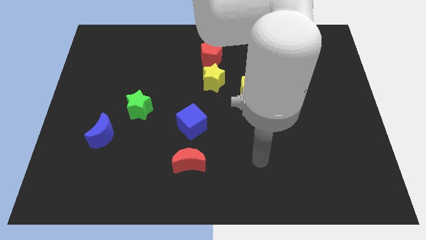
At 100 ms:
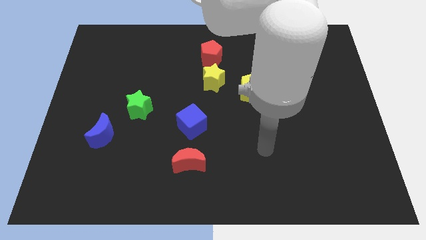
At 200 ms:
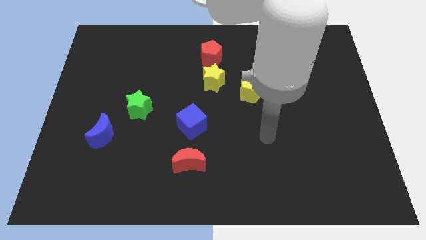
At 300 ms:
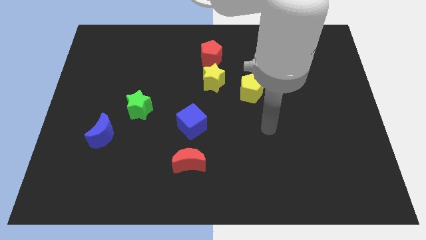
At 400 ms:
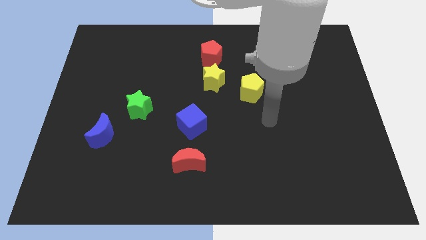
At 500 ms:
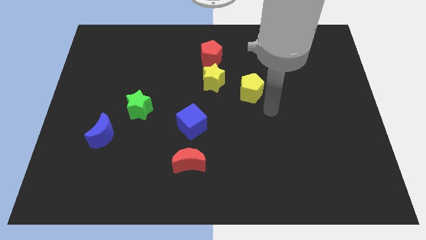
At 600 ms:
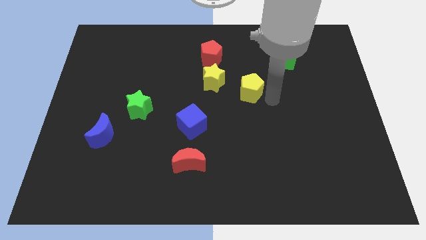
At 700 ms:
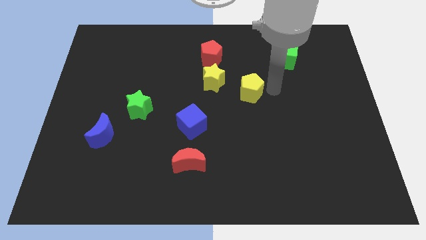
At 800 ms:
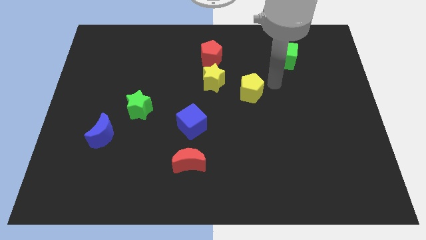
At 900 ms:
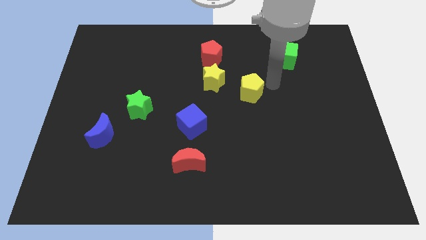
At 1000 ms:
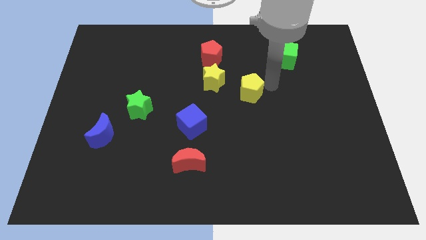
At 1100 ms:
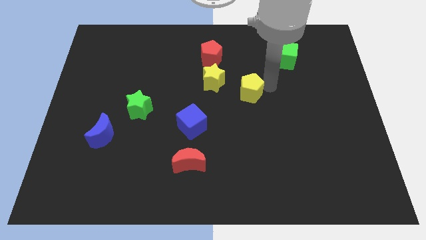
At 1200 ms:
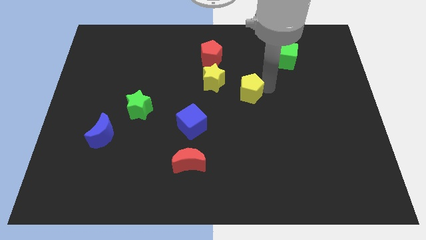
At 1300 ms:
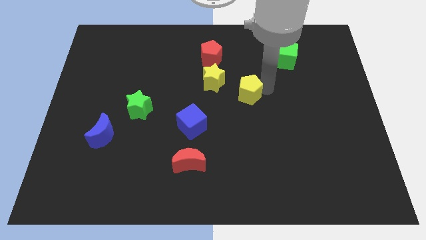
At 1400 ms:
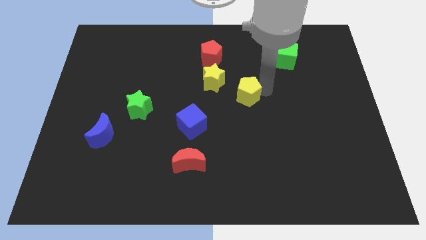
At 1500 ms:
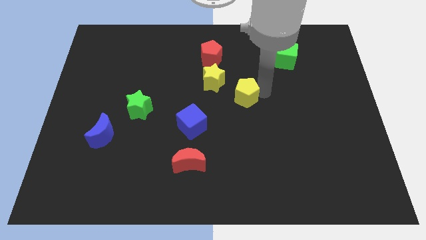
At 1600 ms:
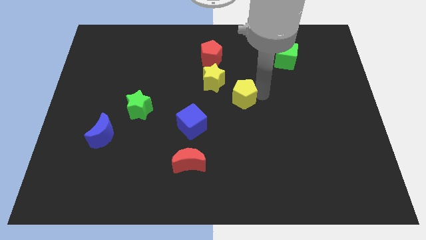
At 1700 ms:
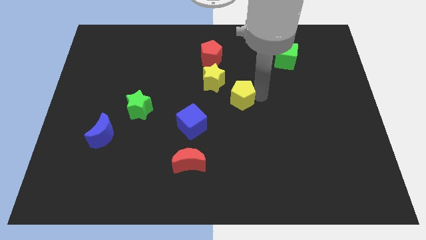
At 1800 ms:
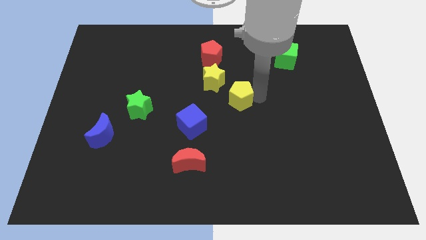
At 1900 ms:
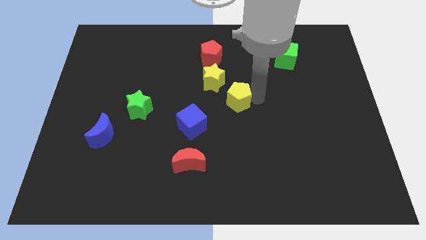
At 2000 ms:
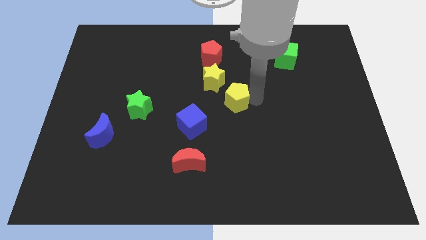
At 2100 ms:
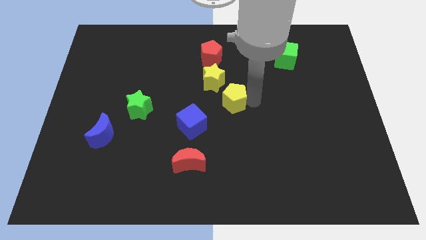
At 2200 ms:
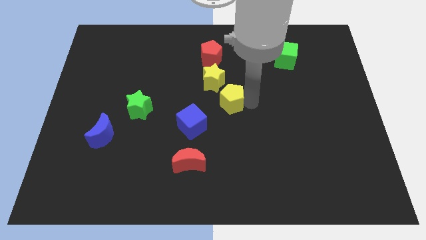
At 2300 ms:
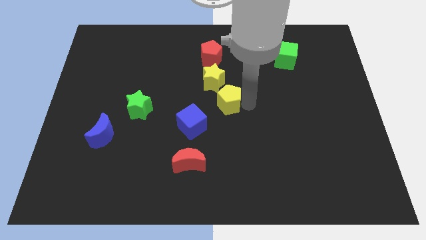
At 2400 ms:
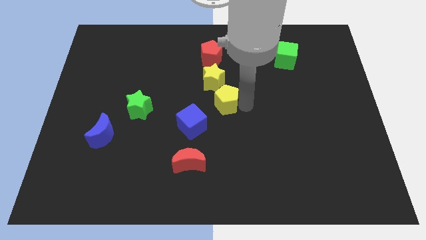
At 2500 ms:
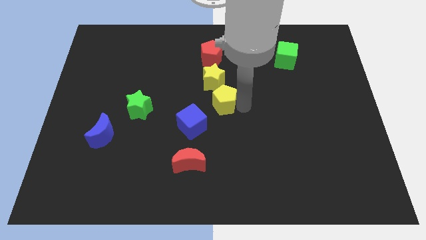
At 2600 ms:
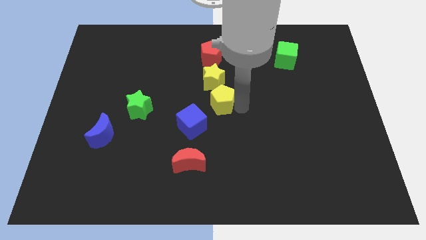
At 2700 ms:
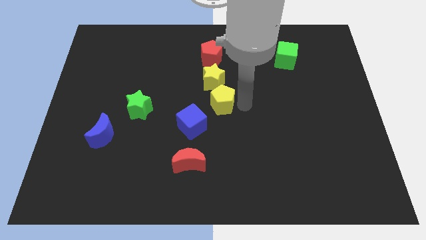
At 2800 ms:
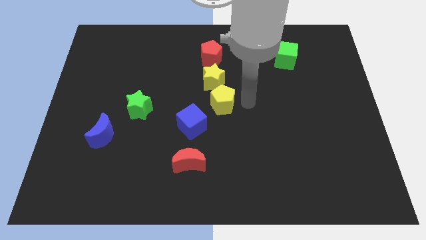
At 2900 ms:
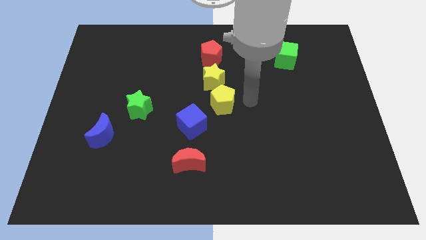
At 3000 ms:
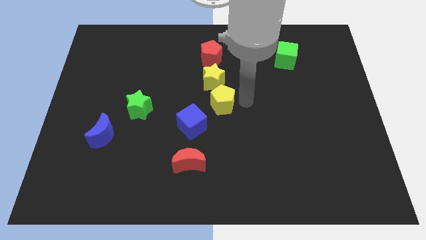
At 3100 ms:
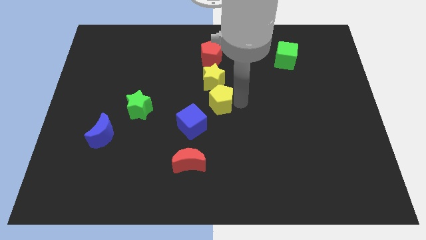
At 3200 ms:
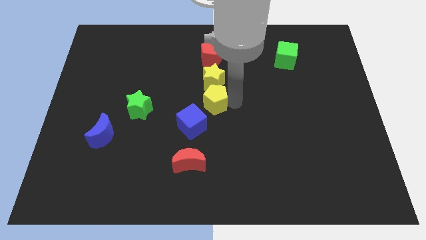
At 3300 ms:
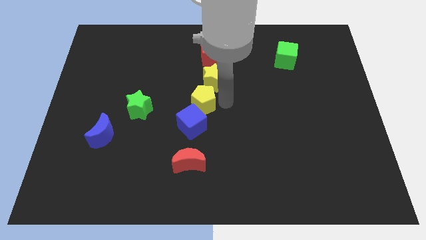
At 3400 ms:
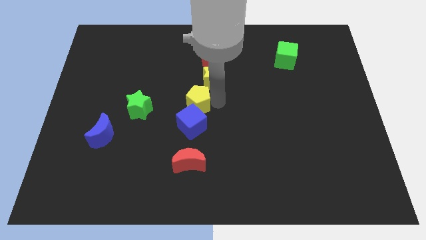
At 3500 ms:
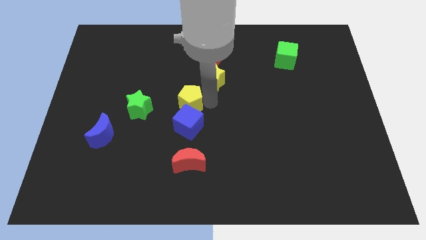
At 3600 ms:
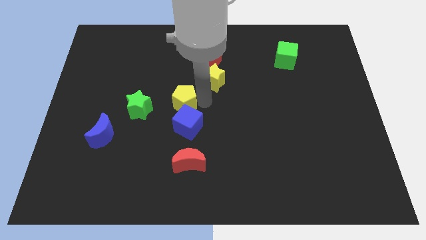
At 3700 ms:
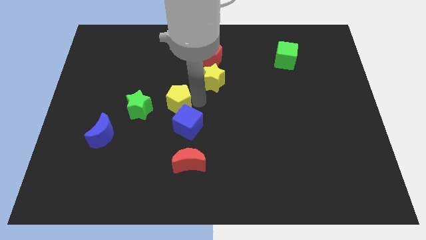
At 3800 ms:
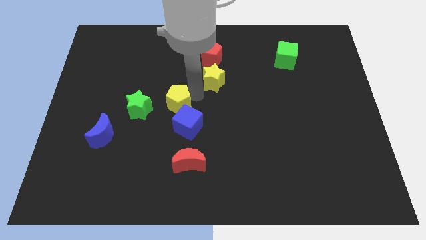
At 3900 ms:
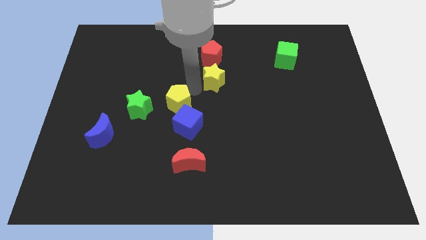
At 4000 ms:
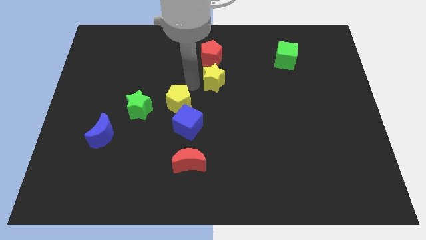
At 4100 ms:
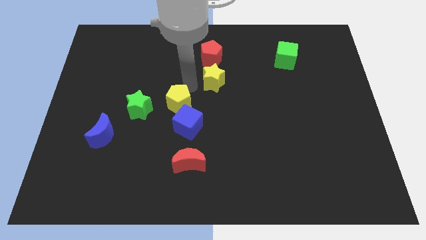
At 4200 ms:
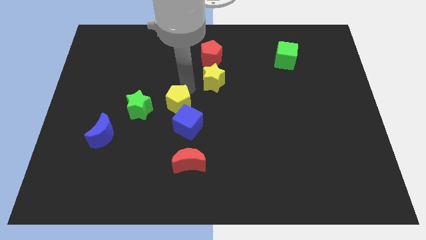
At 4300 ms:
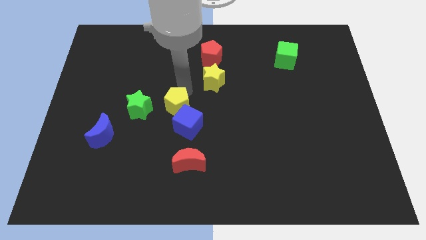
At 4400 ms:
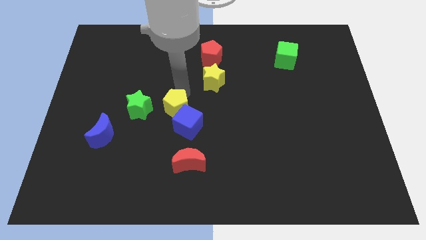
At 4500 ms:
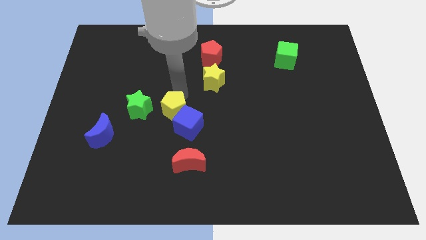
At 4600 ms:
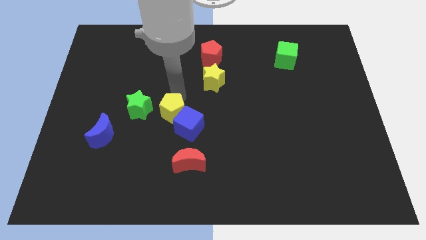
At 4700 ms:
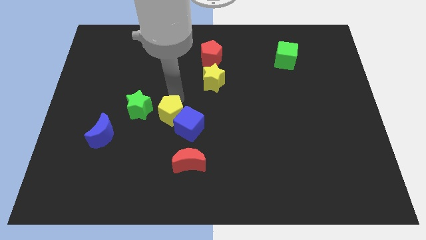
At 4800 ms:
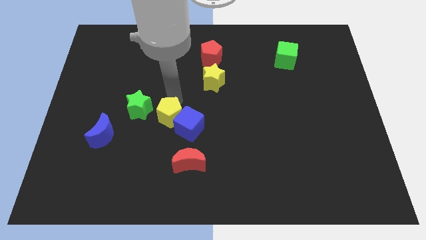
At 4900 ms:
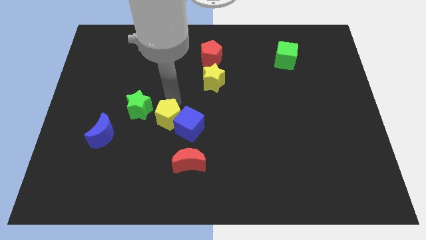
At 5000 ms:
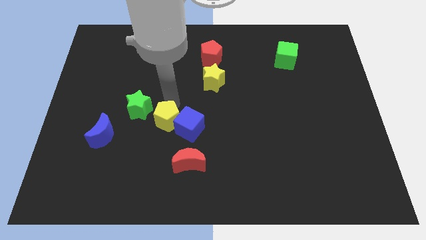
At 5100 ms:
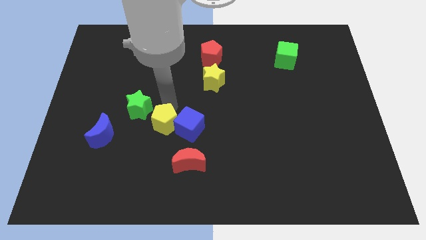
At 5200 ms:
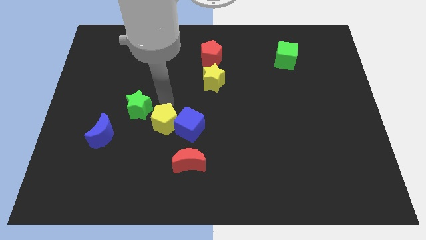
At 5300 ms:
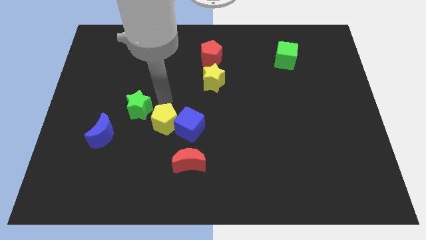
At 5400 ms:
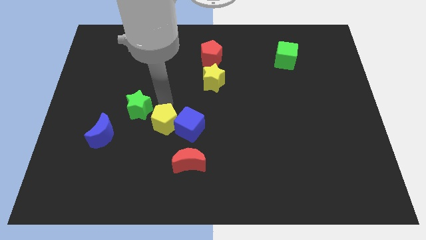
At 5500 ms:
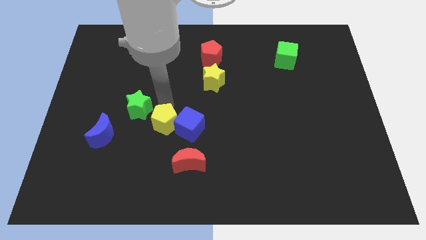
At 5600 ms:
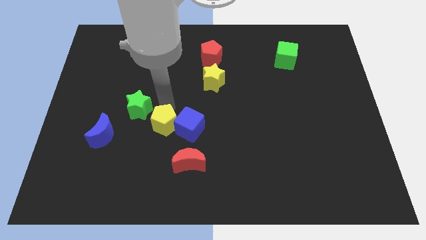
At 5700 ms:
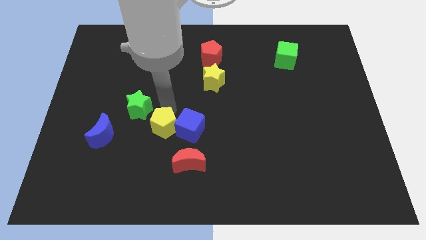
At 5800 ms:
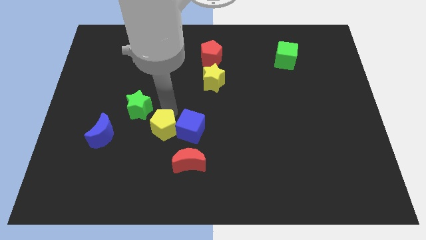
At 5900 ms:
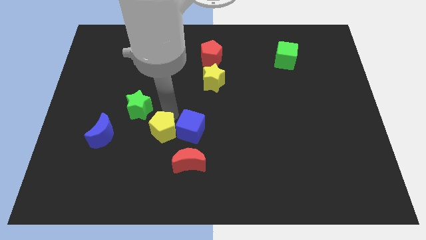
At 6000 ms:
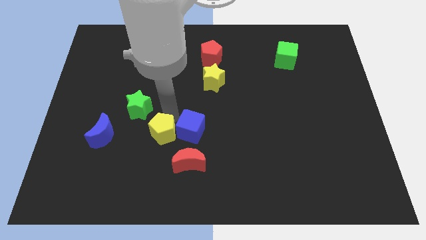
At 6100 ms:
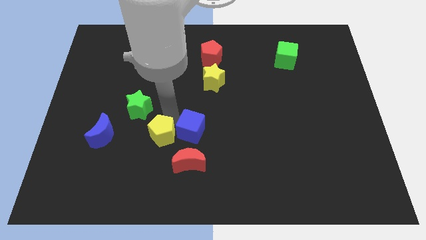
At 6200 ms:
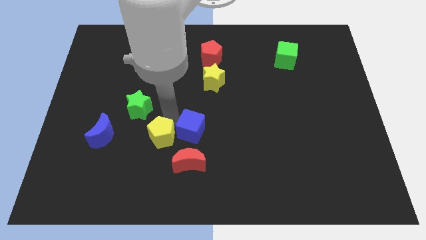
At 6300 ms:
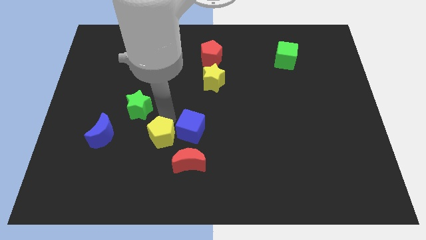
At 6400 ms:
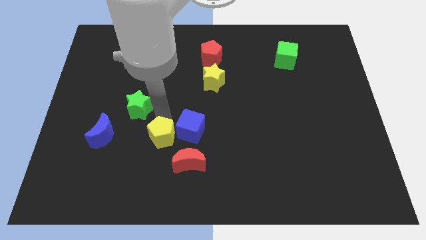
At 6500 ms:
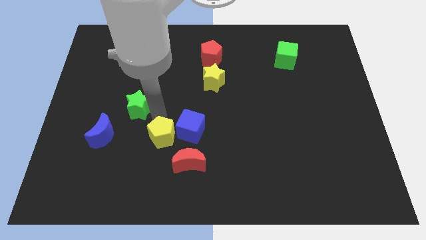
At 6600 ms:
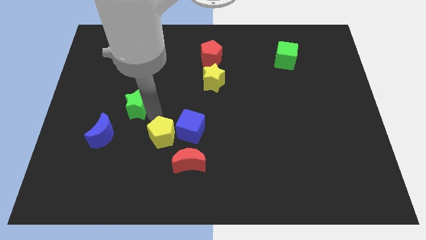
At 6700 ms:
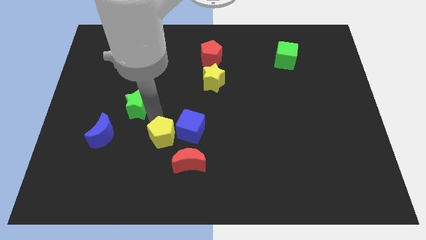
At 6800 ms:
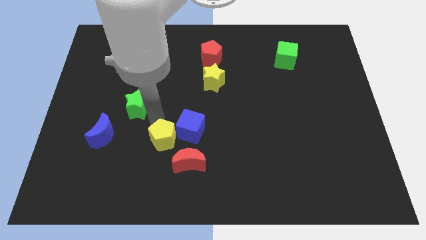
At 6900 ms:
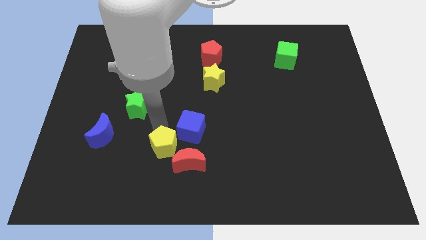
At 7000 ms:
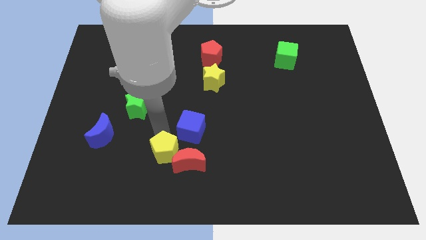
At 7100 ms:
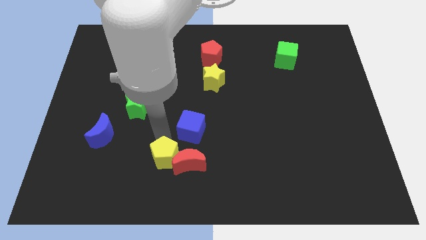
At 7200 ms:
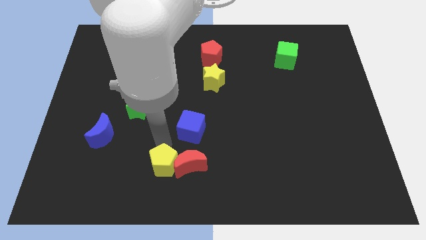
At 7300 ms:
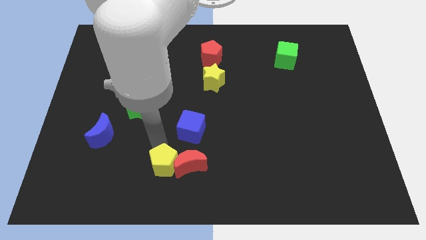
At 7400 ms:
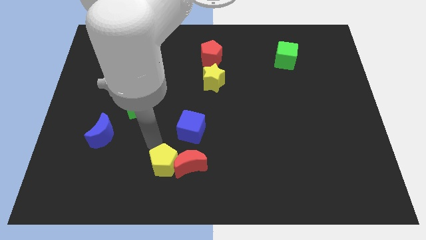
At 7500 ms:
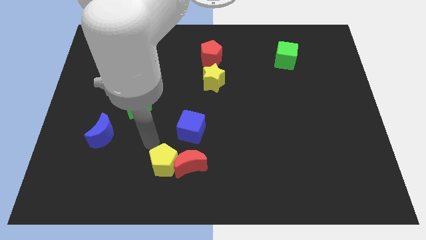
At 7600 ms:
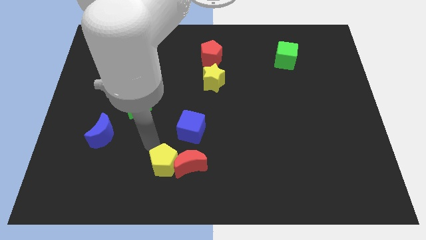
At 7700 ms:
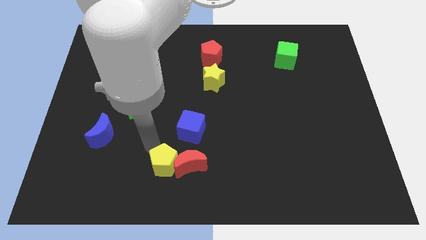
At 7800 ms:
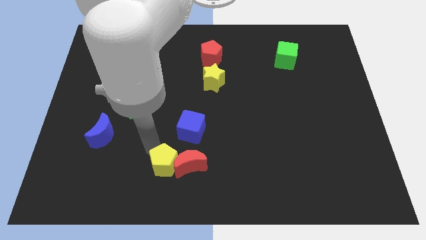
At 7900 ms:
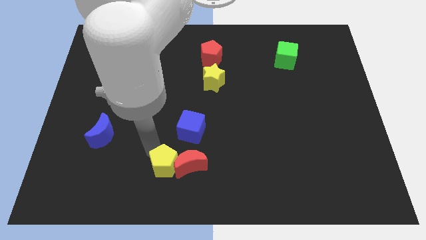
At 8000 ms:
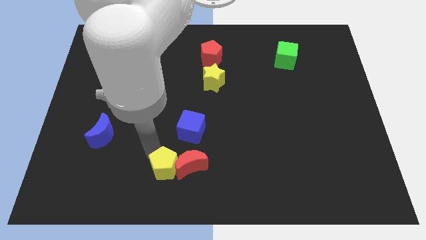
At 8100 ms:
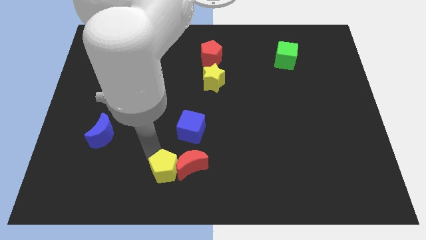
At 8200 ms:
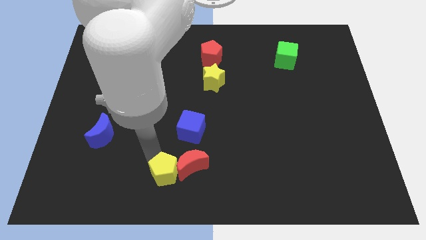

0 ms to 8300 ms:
move the yellow pentagon to the bottom side of the blue cube
